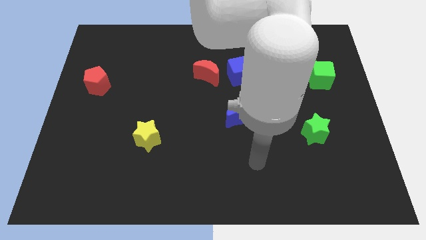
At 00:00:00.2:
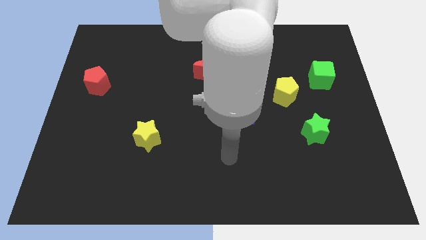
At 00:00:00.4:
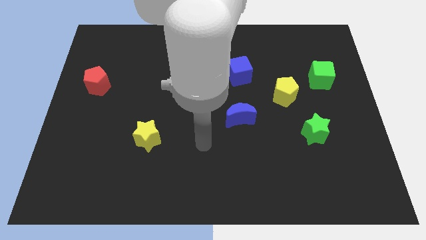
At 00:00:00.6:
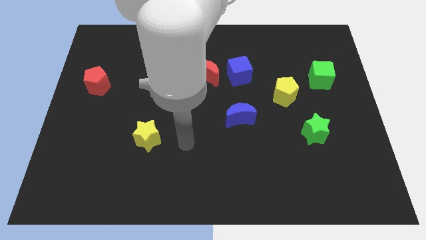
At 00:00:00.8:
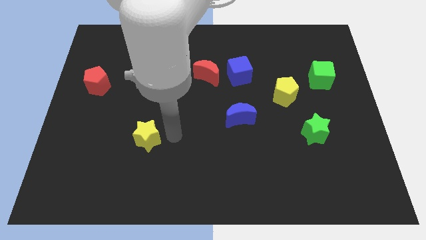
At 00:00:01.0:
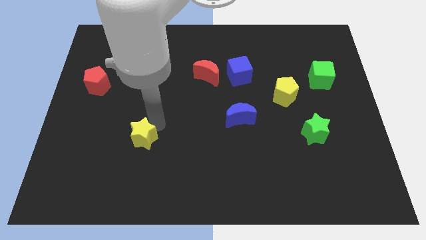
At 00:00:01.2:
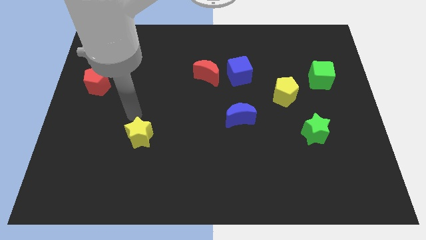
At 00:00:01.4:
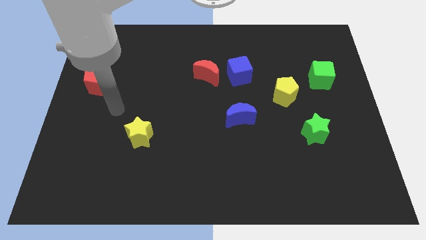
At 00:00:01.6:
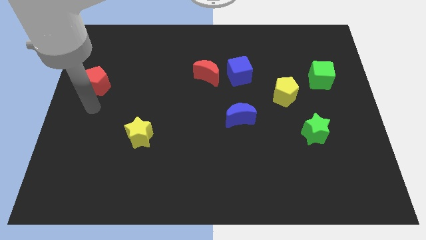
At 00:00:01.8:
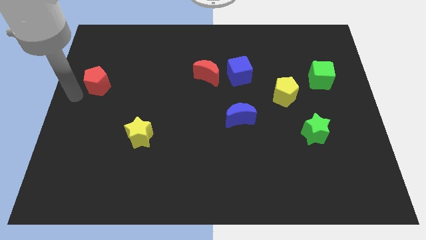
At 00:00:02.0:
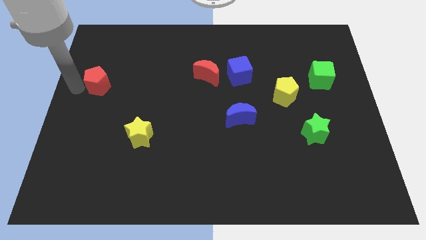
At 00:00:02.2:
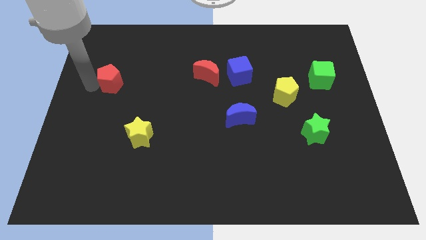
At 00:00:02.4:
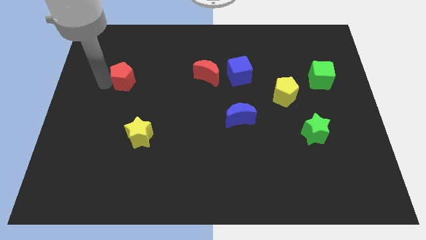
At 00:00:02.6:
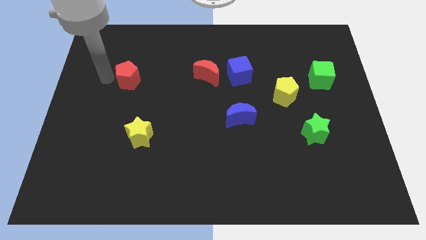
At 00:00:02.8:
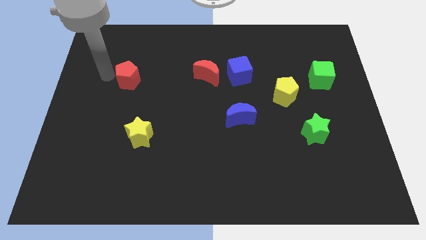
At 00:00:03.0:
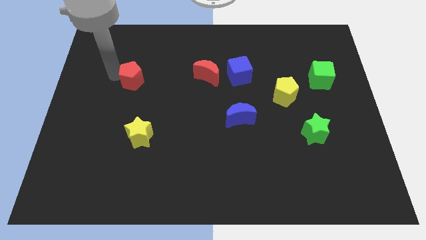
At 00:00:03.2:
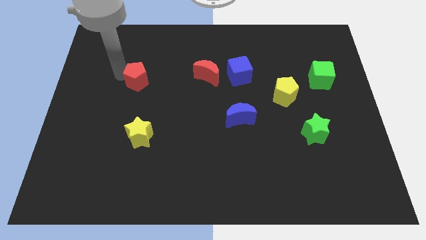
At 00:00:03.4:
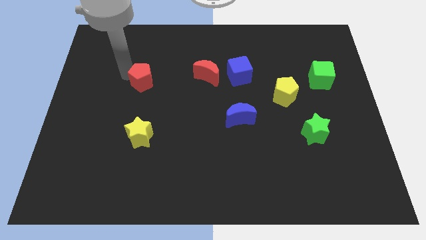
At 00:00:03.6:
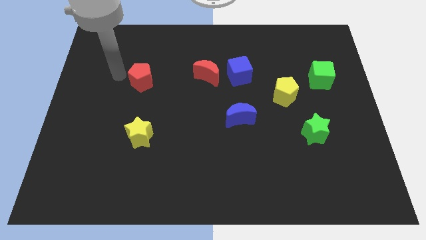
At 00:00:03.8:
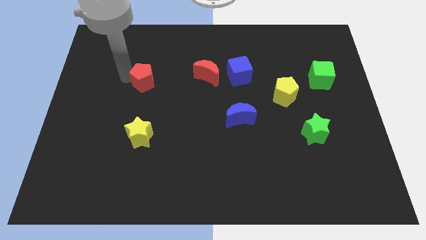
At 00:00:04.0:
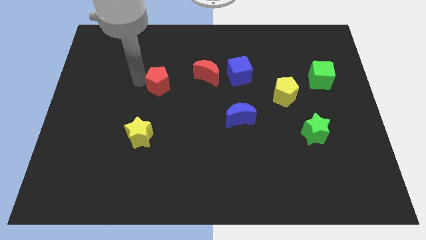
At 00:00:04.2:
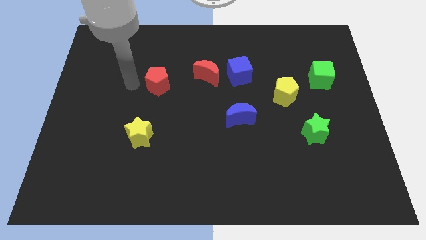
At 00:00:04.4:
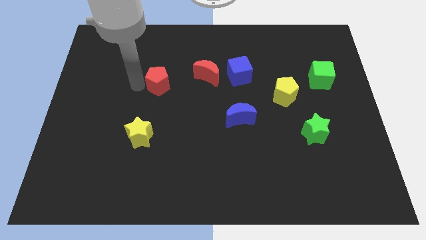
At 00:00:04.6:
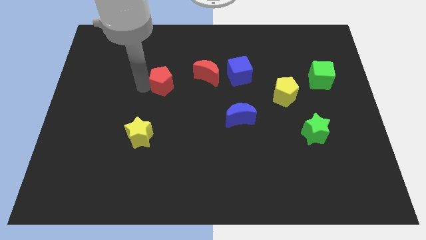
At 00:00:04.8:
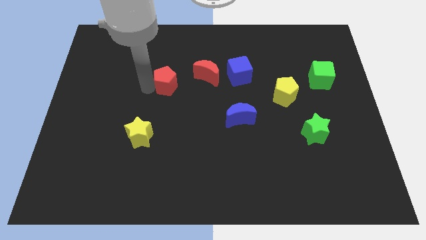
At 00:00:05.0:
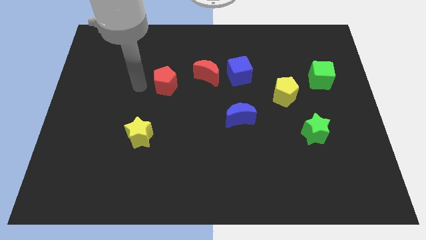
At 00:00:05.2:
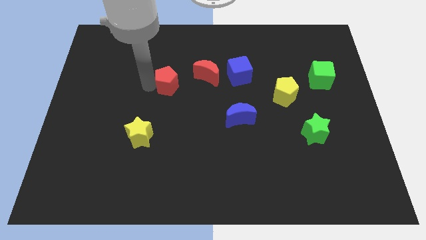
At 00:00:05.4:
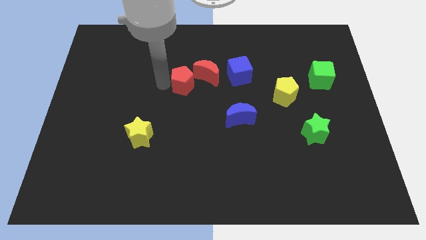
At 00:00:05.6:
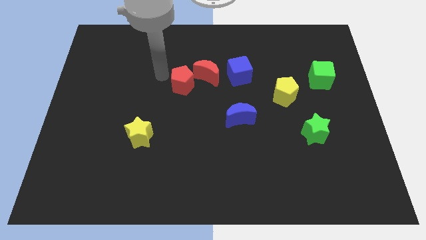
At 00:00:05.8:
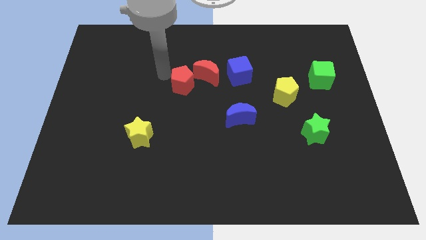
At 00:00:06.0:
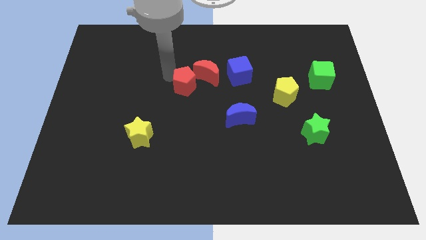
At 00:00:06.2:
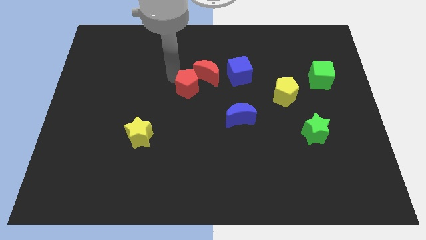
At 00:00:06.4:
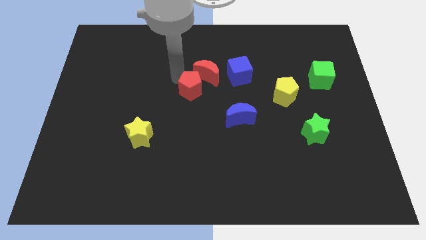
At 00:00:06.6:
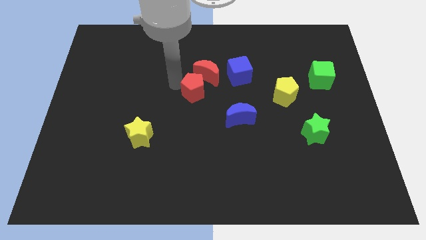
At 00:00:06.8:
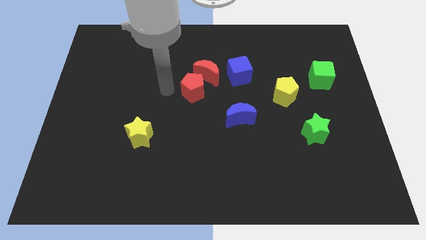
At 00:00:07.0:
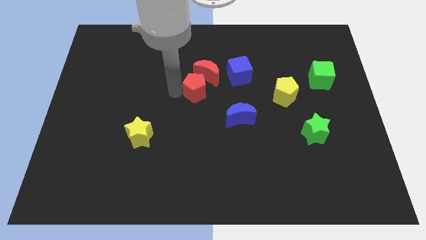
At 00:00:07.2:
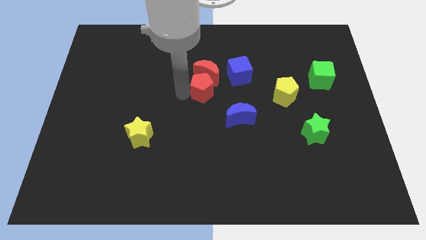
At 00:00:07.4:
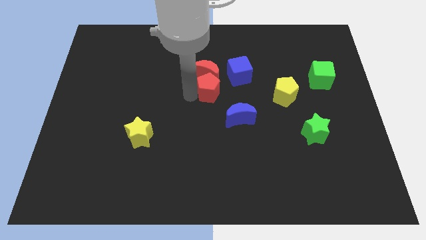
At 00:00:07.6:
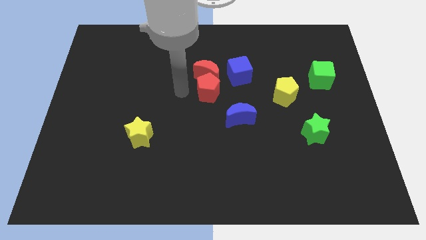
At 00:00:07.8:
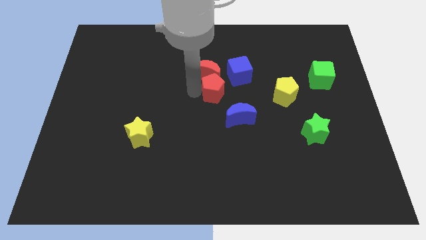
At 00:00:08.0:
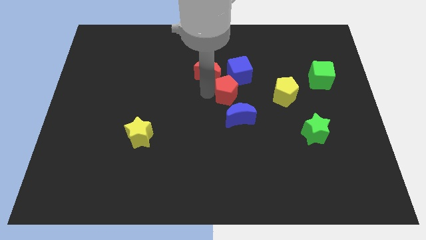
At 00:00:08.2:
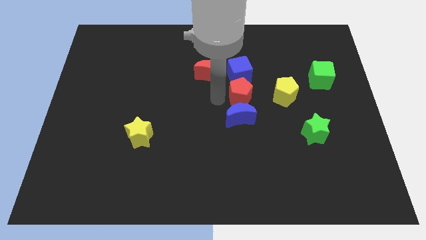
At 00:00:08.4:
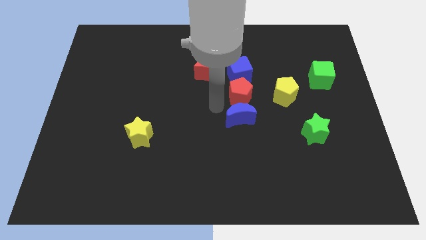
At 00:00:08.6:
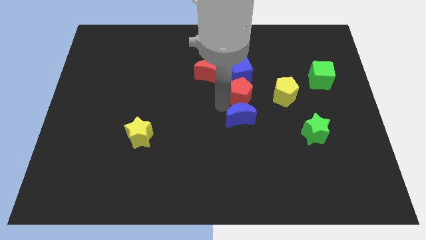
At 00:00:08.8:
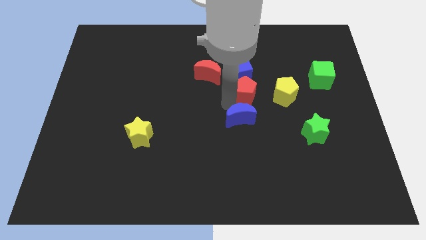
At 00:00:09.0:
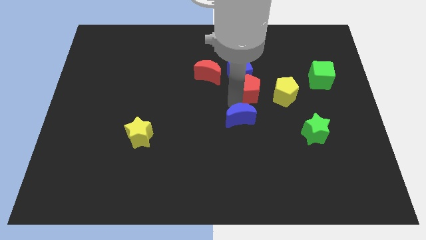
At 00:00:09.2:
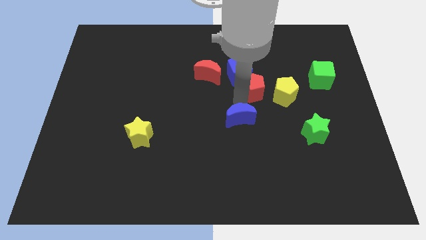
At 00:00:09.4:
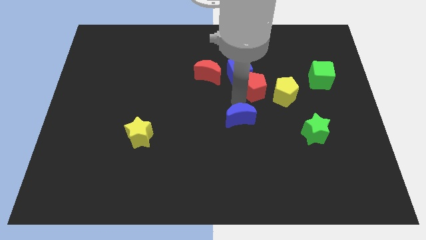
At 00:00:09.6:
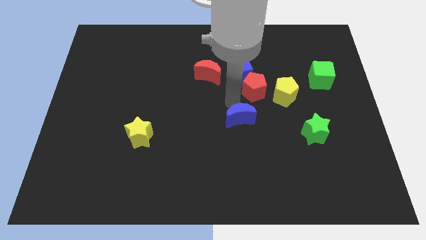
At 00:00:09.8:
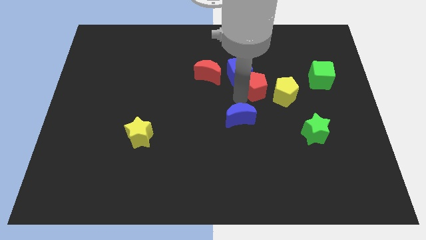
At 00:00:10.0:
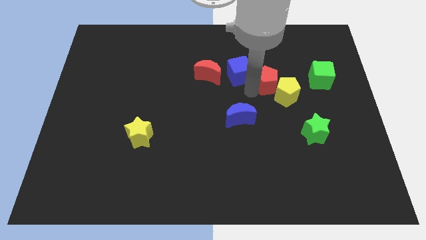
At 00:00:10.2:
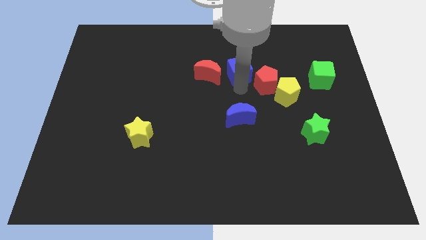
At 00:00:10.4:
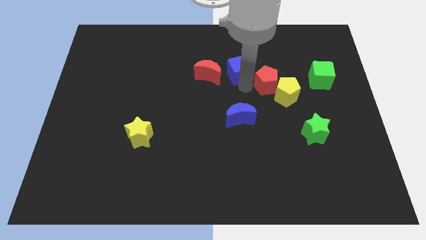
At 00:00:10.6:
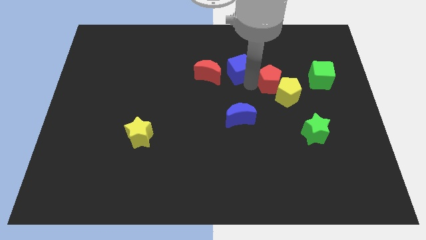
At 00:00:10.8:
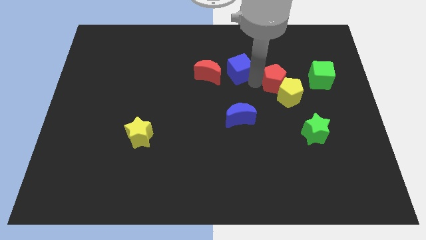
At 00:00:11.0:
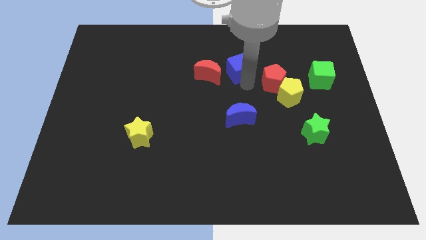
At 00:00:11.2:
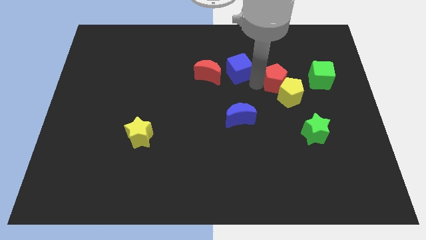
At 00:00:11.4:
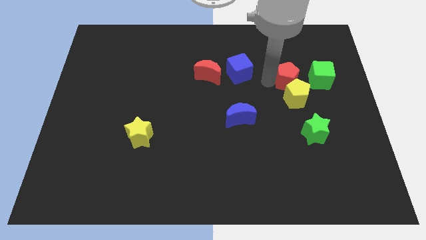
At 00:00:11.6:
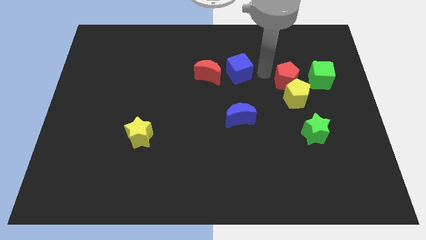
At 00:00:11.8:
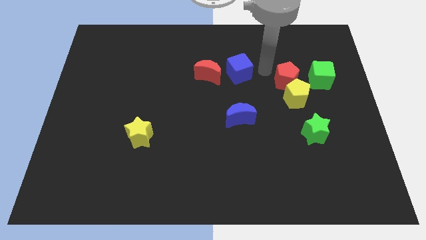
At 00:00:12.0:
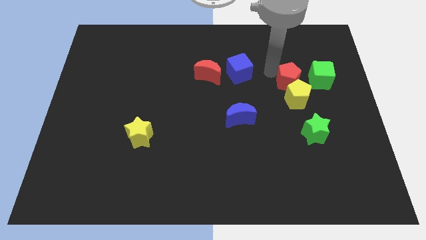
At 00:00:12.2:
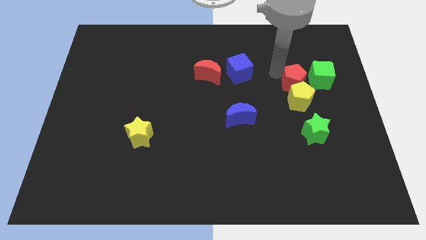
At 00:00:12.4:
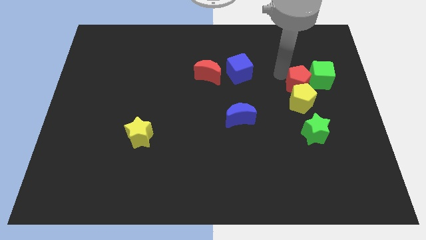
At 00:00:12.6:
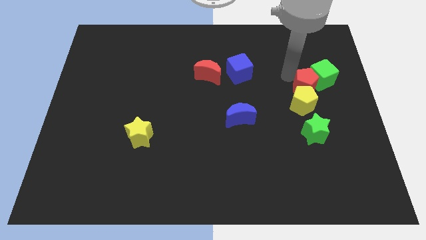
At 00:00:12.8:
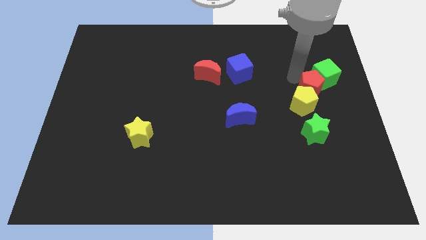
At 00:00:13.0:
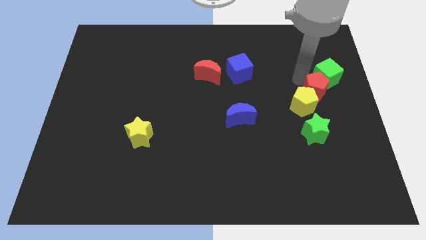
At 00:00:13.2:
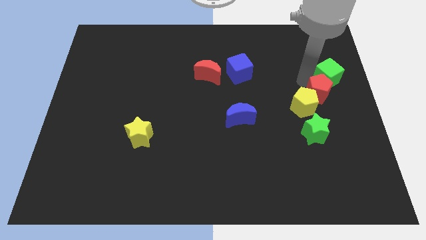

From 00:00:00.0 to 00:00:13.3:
put the red pentagon to the center right
